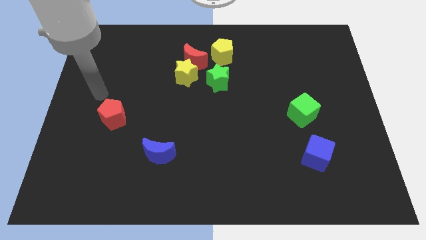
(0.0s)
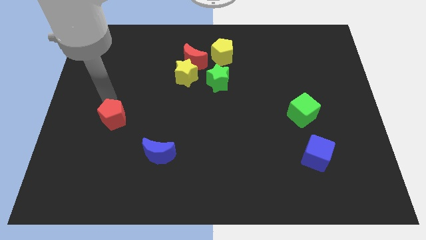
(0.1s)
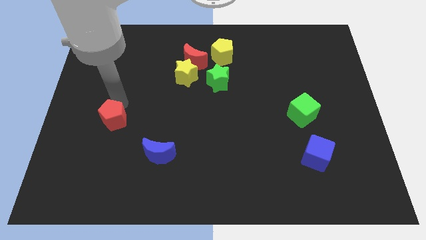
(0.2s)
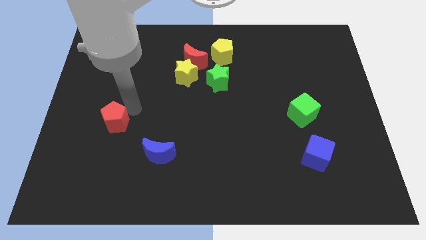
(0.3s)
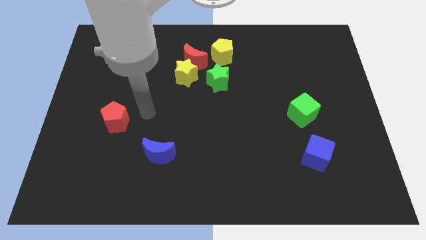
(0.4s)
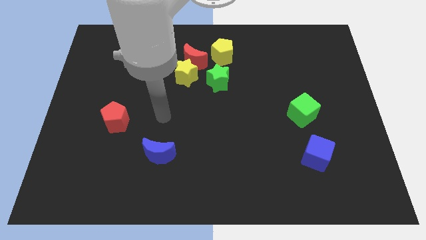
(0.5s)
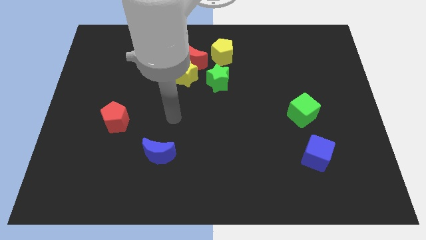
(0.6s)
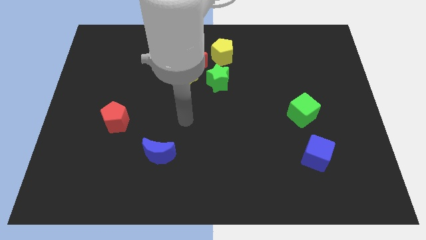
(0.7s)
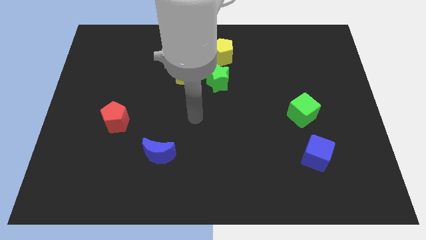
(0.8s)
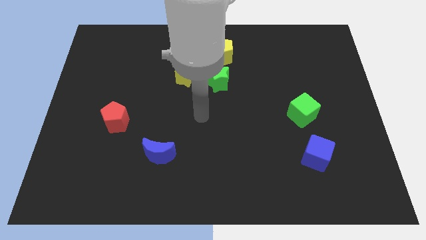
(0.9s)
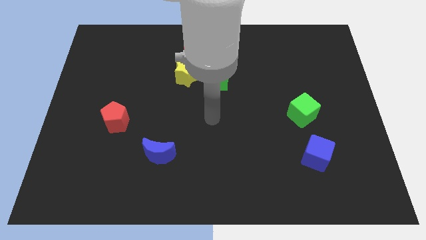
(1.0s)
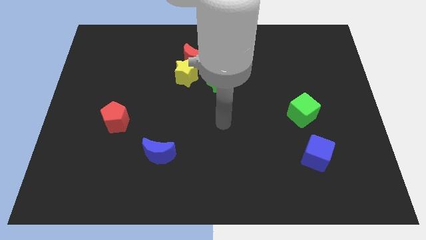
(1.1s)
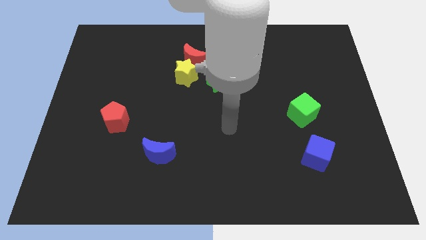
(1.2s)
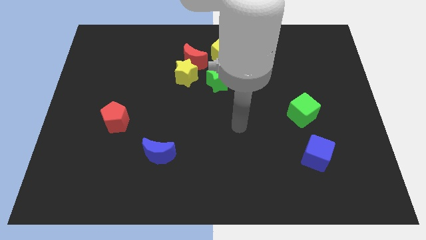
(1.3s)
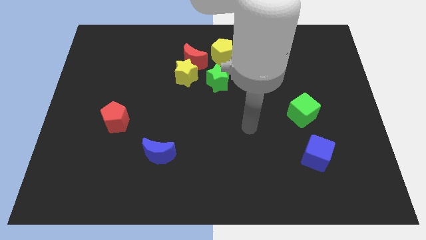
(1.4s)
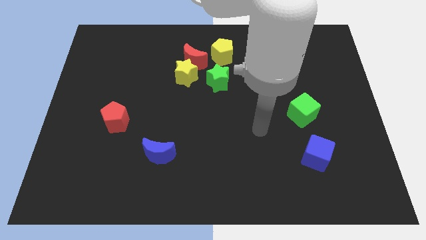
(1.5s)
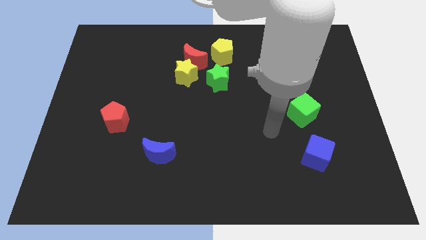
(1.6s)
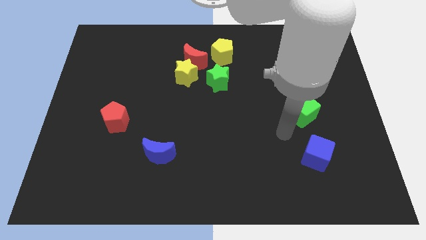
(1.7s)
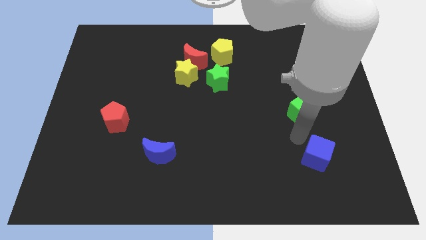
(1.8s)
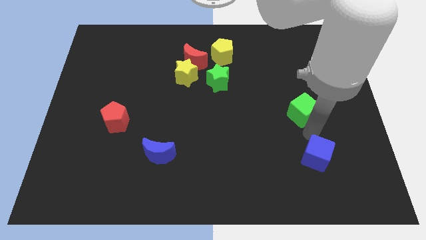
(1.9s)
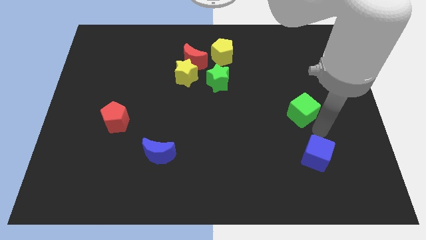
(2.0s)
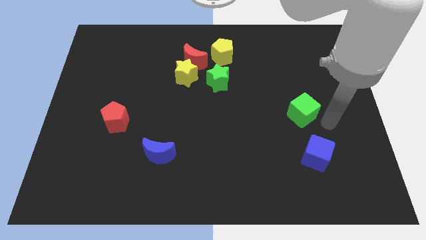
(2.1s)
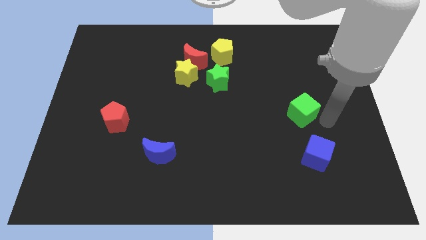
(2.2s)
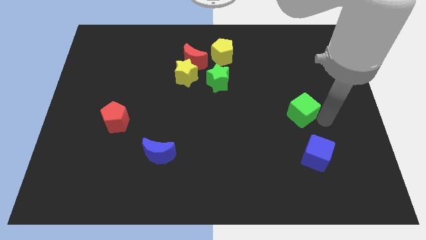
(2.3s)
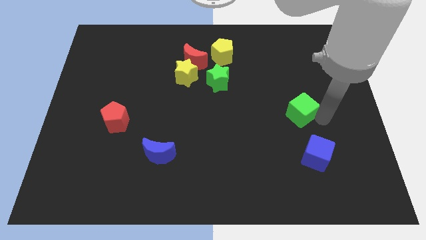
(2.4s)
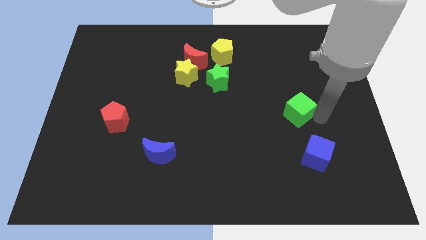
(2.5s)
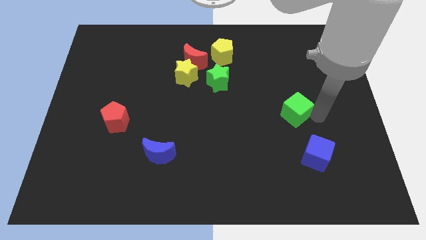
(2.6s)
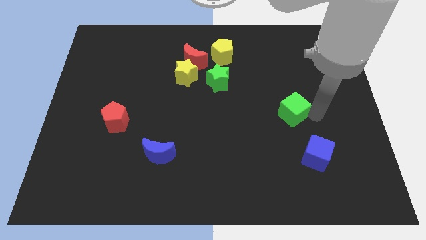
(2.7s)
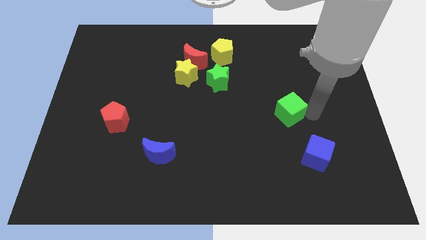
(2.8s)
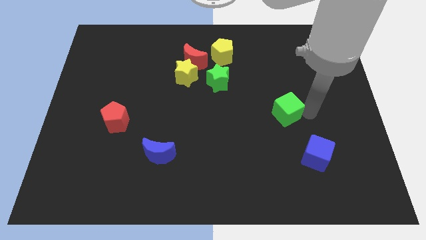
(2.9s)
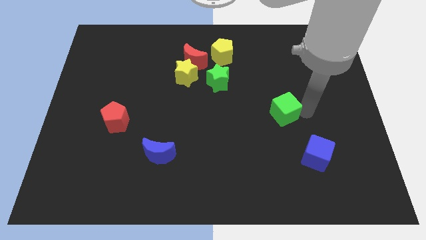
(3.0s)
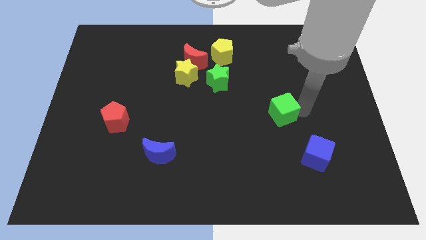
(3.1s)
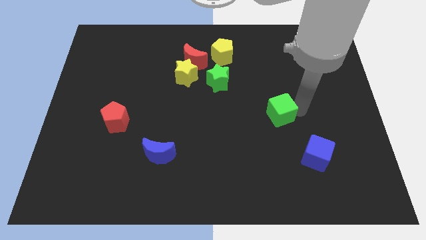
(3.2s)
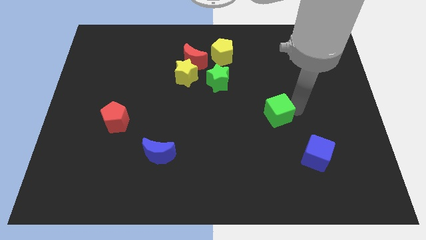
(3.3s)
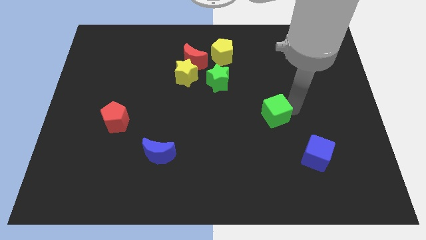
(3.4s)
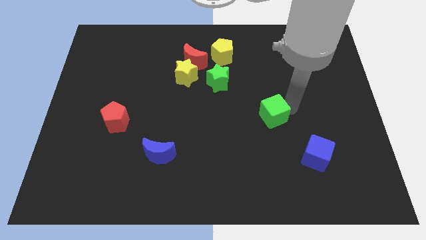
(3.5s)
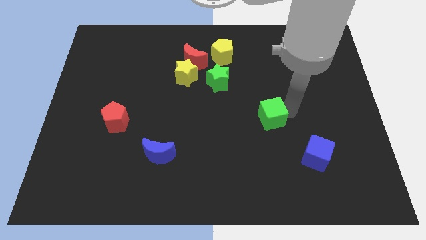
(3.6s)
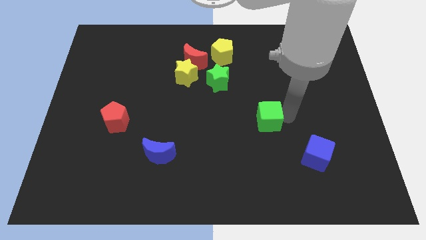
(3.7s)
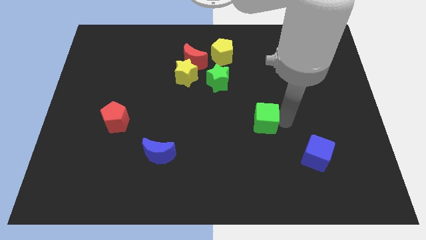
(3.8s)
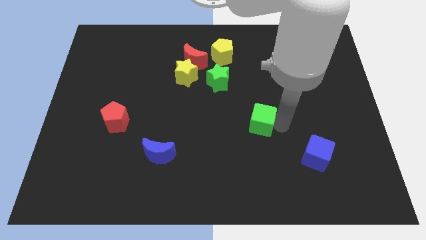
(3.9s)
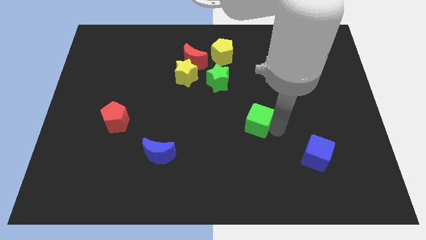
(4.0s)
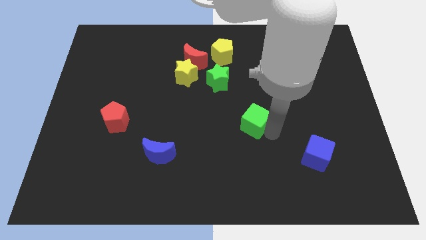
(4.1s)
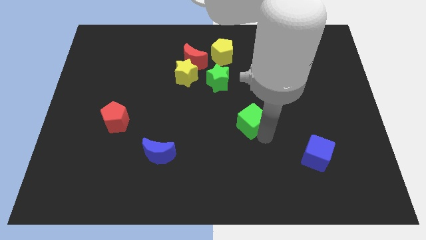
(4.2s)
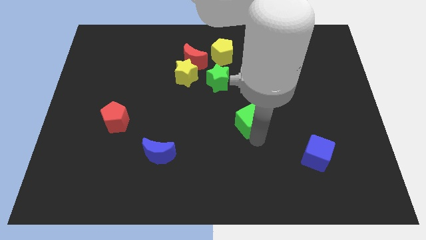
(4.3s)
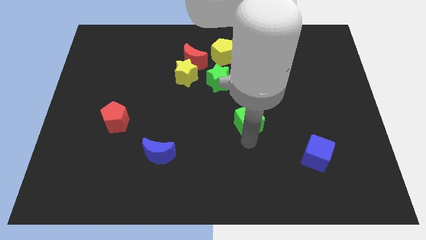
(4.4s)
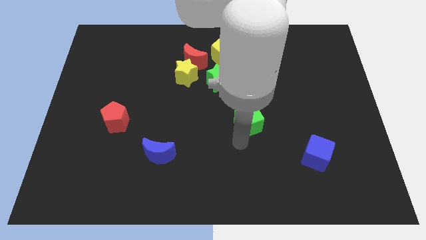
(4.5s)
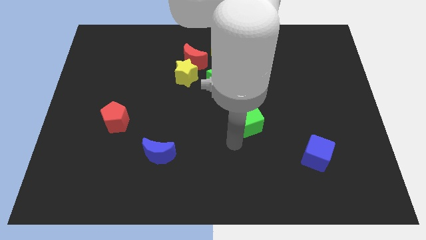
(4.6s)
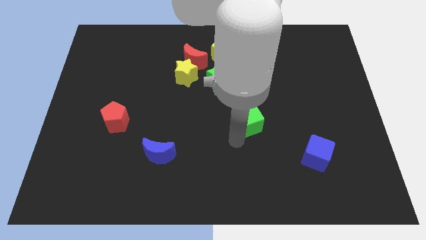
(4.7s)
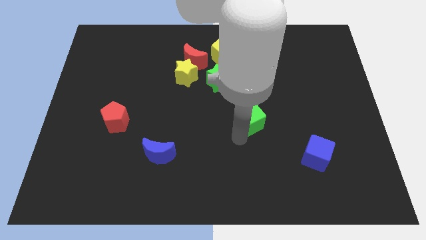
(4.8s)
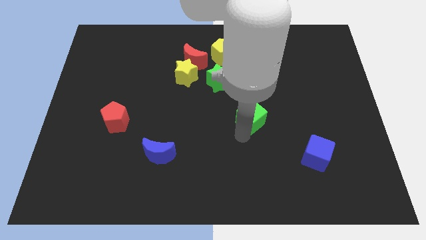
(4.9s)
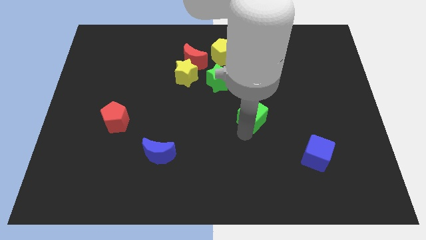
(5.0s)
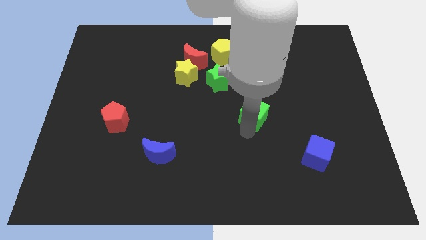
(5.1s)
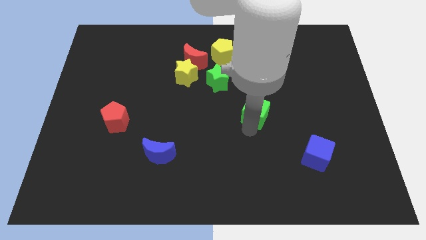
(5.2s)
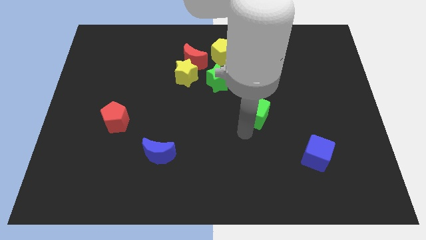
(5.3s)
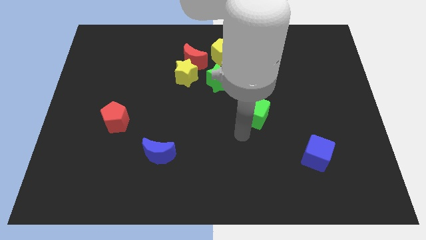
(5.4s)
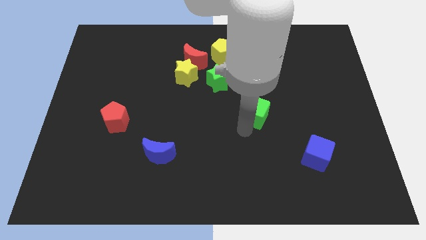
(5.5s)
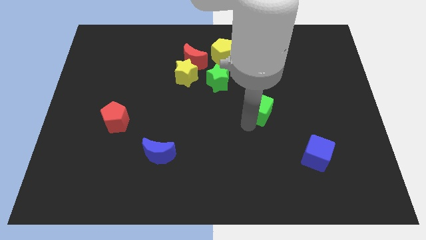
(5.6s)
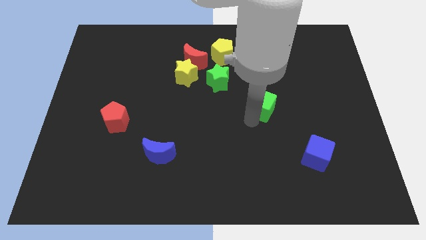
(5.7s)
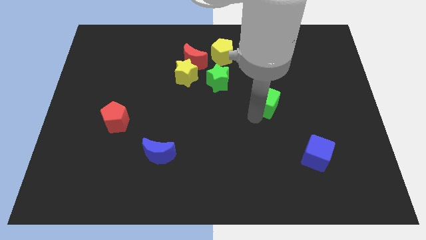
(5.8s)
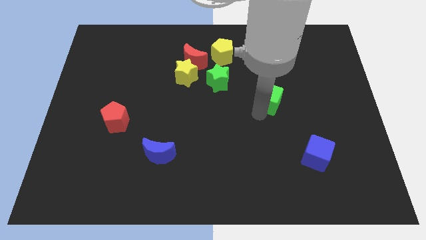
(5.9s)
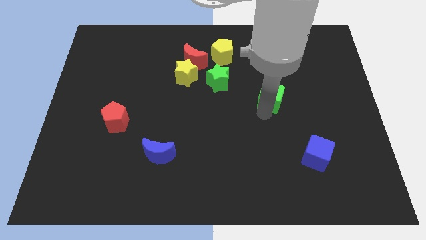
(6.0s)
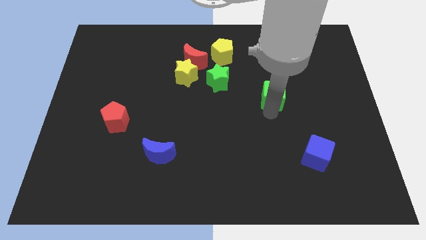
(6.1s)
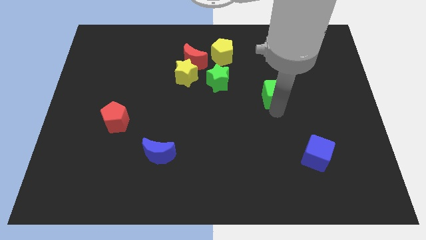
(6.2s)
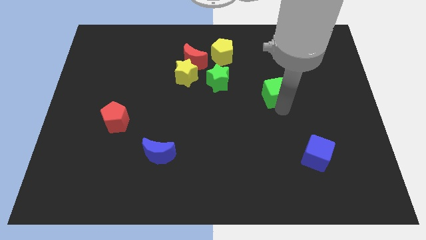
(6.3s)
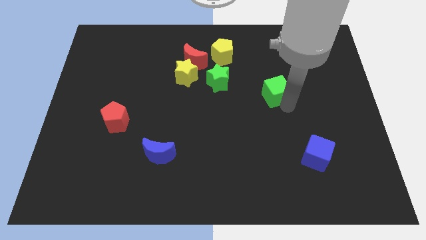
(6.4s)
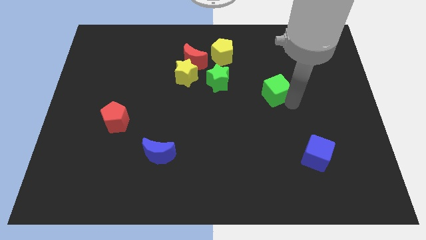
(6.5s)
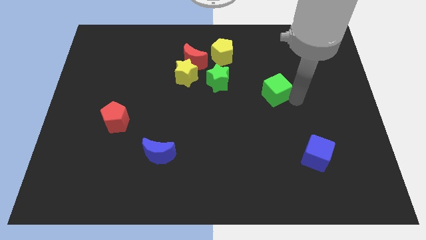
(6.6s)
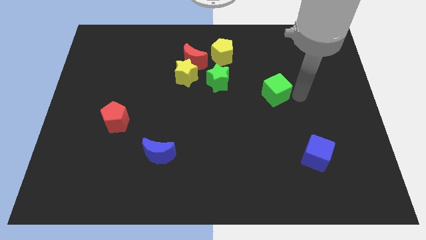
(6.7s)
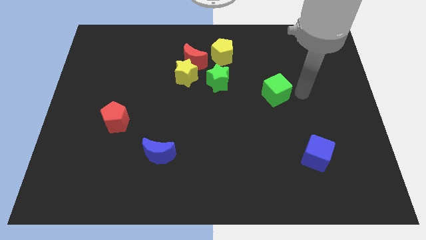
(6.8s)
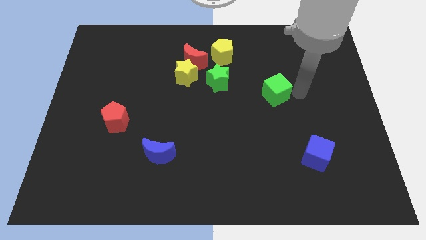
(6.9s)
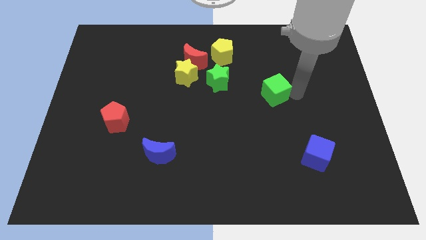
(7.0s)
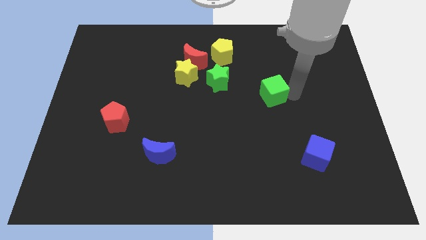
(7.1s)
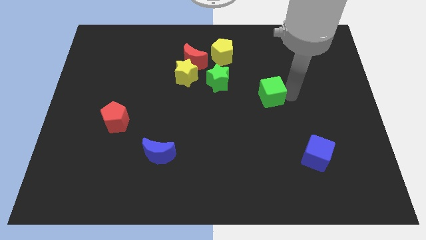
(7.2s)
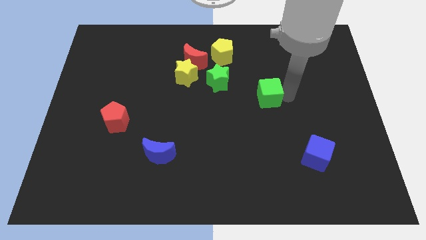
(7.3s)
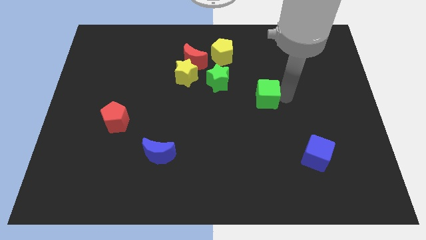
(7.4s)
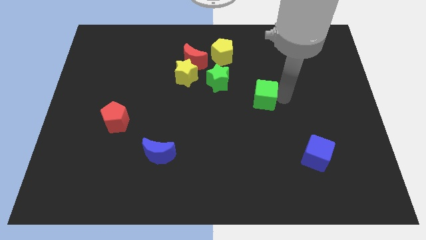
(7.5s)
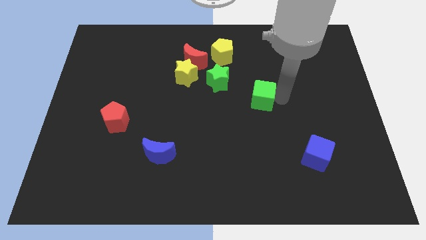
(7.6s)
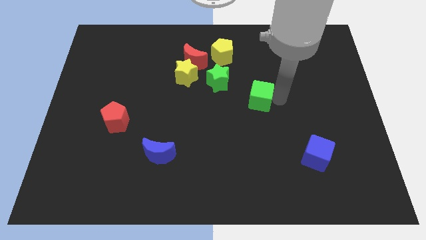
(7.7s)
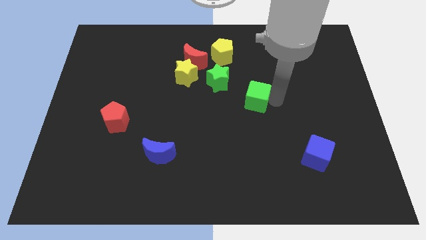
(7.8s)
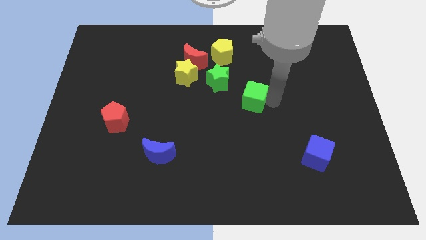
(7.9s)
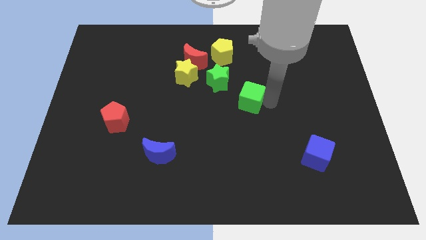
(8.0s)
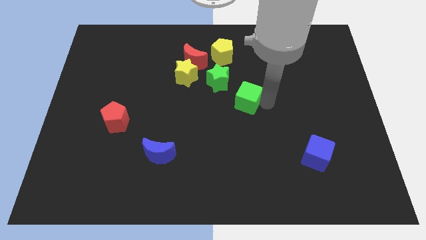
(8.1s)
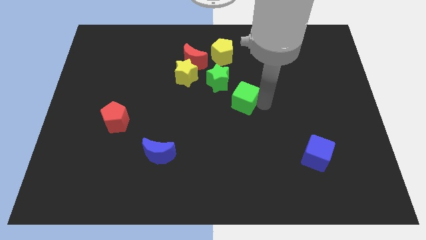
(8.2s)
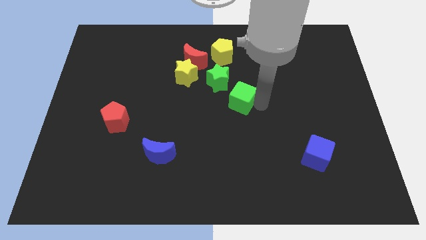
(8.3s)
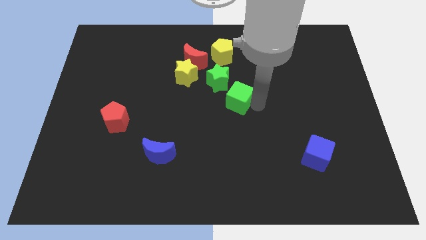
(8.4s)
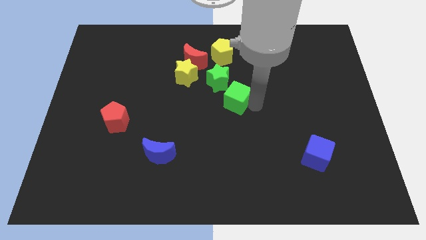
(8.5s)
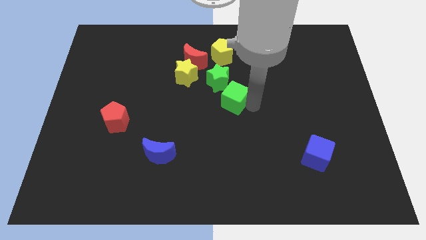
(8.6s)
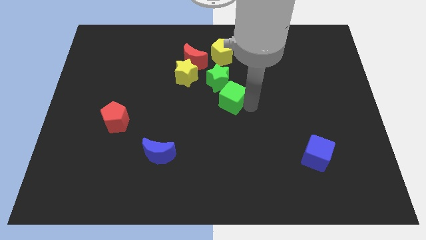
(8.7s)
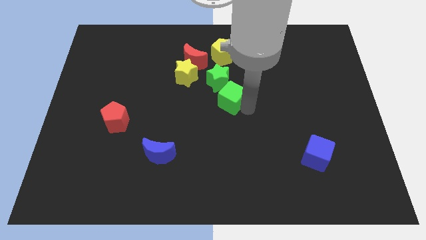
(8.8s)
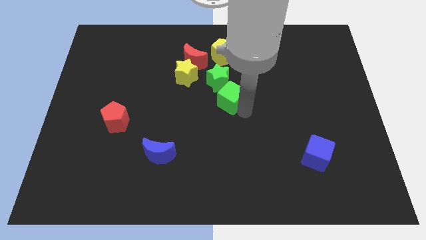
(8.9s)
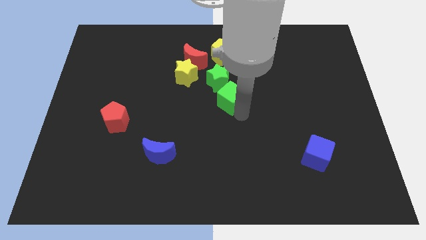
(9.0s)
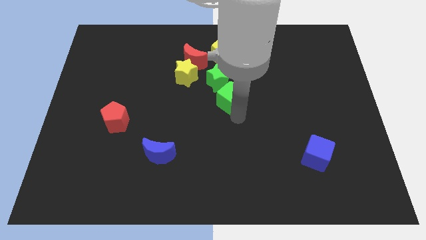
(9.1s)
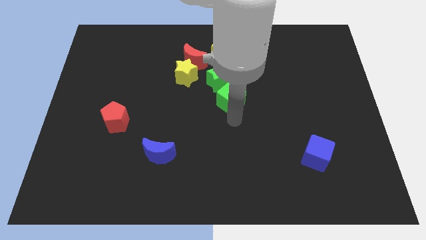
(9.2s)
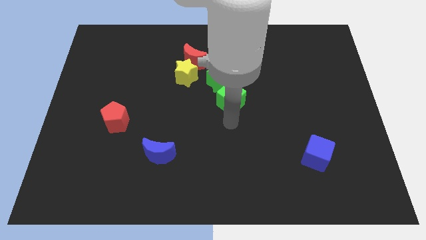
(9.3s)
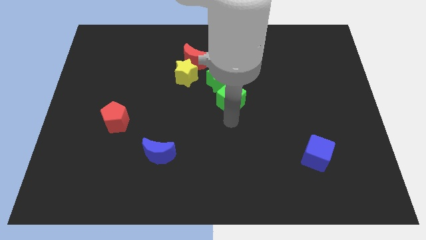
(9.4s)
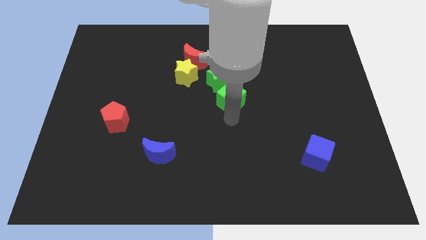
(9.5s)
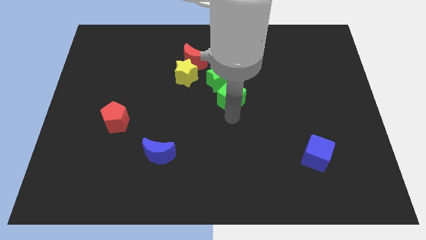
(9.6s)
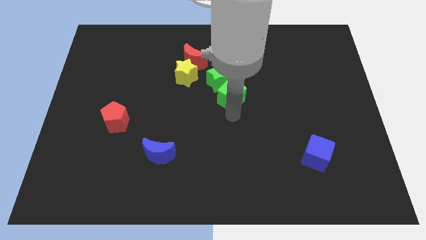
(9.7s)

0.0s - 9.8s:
slide the green cube towards the green star
